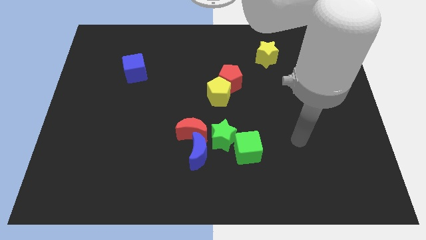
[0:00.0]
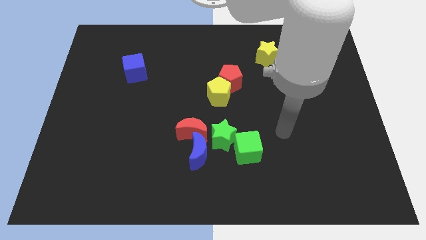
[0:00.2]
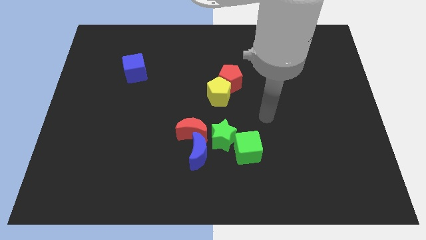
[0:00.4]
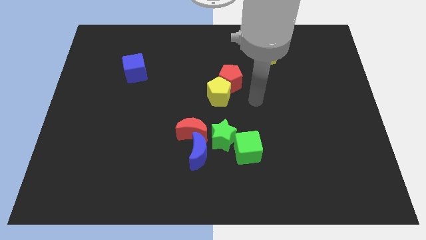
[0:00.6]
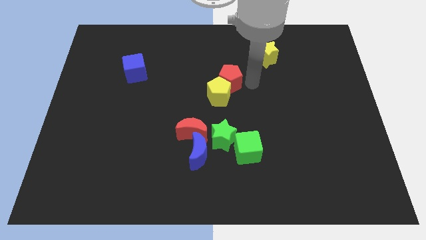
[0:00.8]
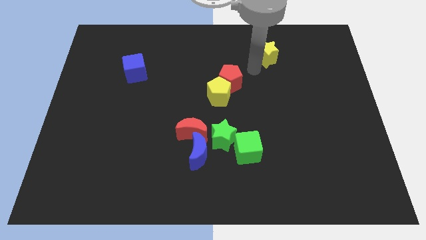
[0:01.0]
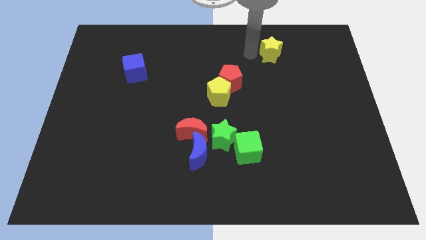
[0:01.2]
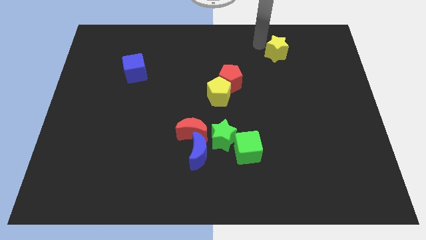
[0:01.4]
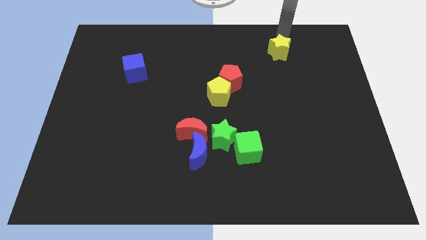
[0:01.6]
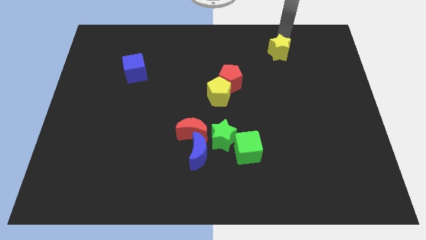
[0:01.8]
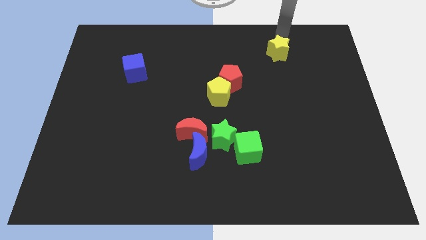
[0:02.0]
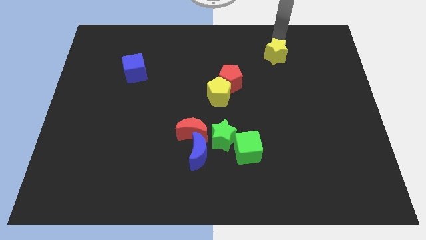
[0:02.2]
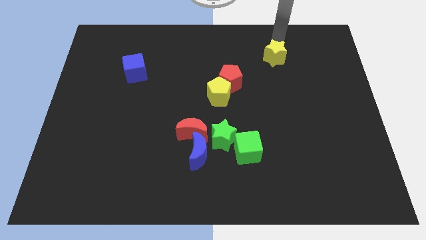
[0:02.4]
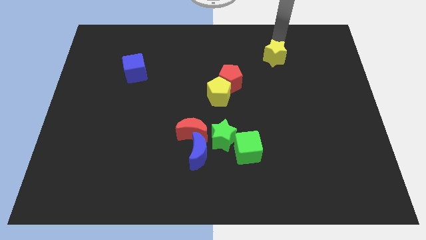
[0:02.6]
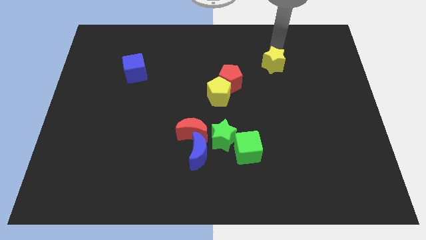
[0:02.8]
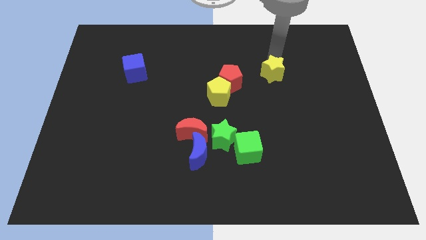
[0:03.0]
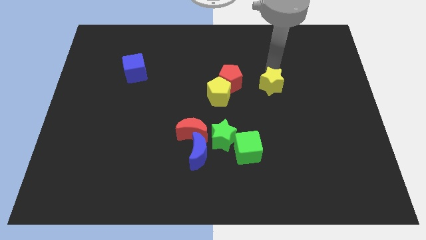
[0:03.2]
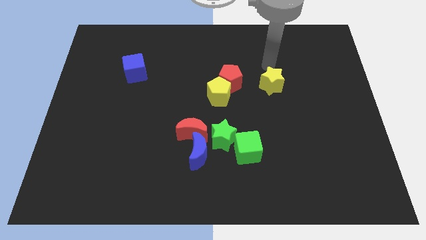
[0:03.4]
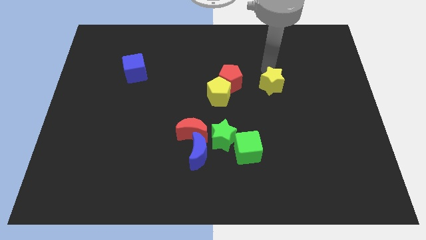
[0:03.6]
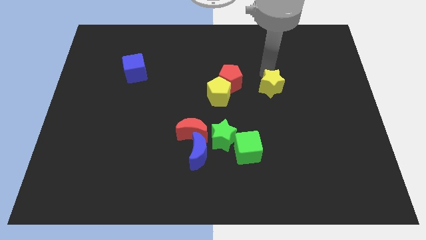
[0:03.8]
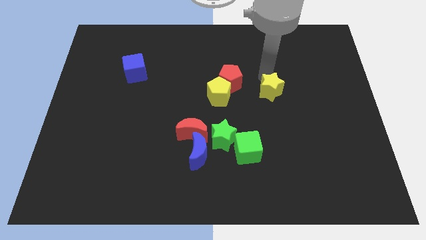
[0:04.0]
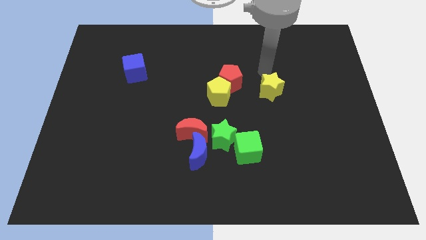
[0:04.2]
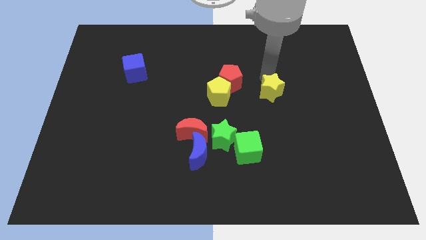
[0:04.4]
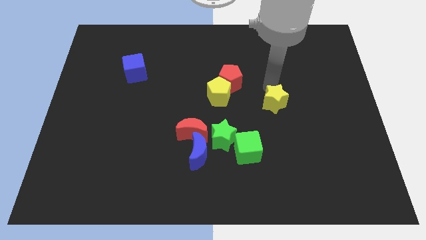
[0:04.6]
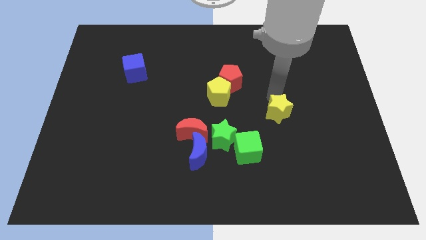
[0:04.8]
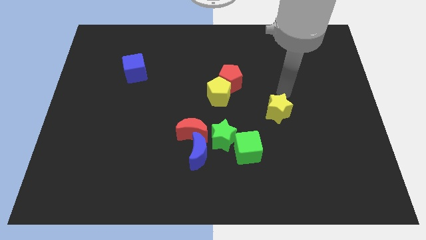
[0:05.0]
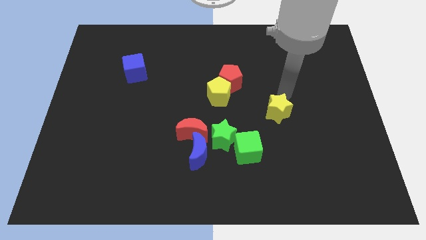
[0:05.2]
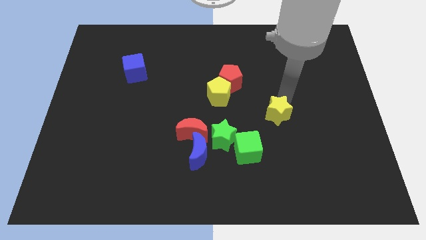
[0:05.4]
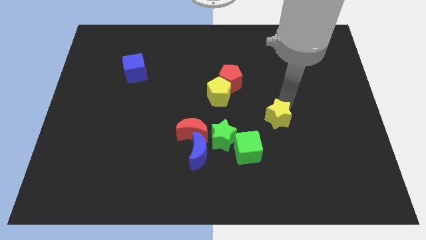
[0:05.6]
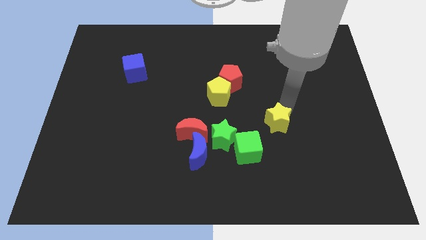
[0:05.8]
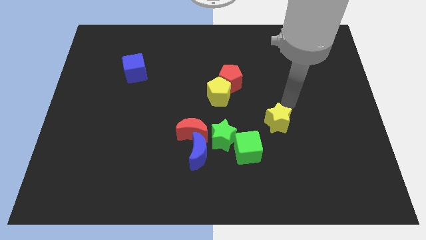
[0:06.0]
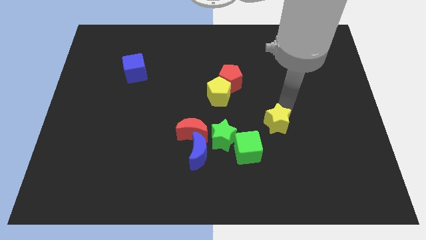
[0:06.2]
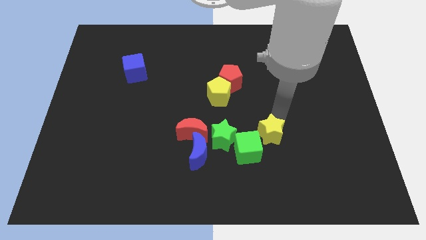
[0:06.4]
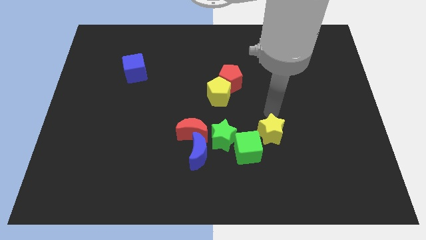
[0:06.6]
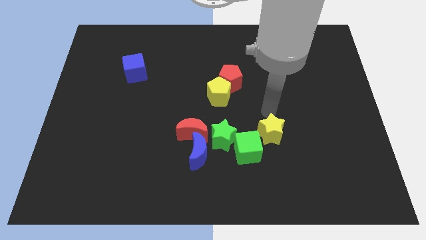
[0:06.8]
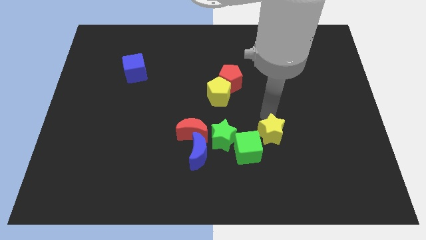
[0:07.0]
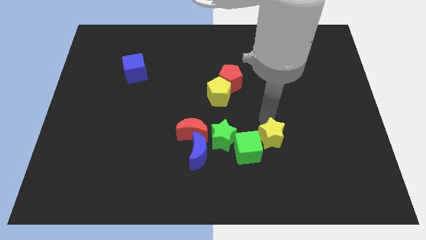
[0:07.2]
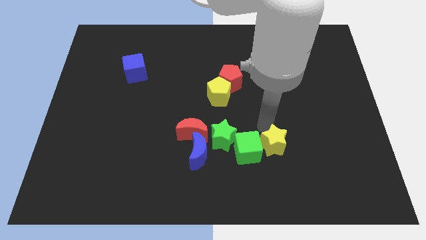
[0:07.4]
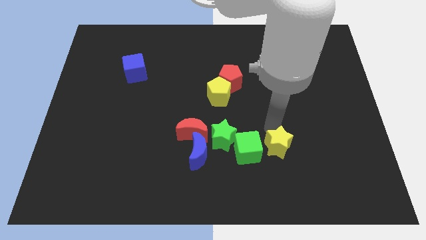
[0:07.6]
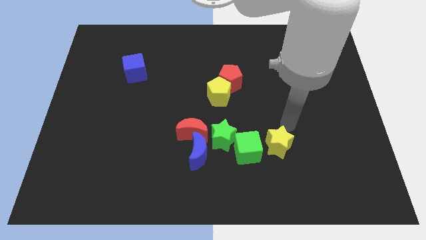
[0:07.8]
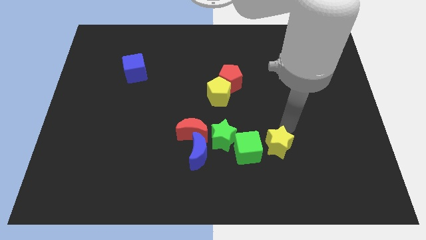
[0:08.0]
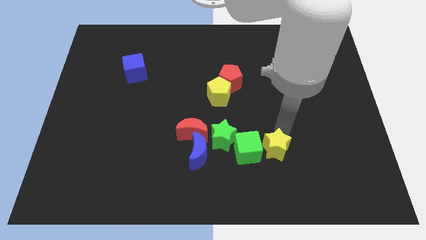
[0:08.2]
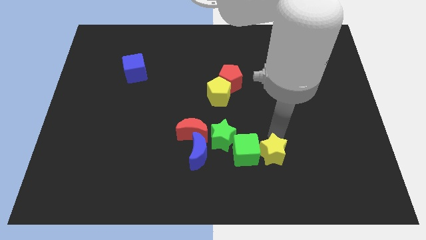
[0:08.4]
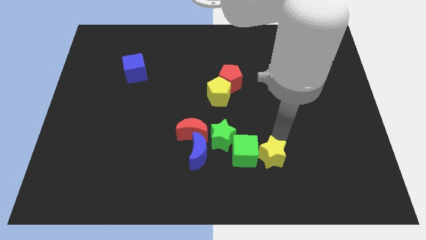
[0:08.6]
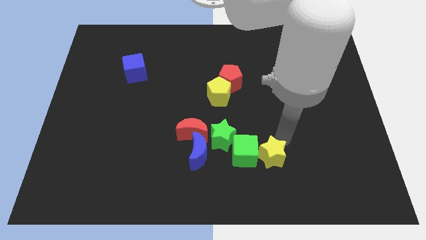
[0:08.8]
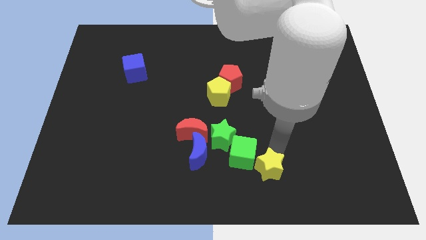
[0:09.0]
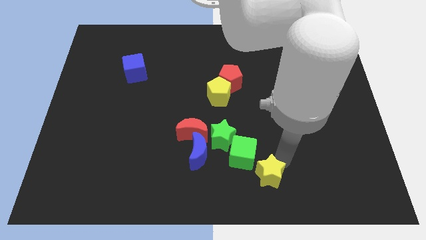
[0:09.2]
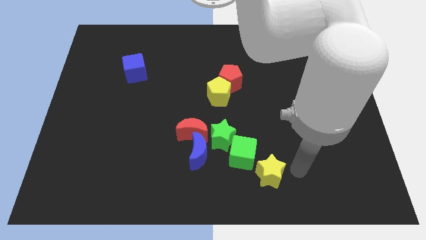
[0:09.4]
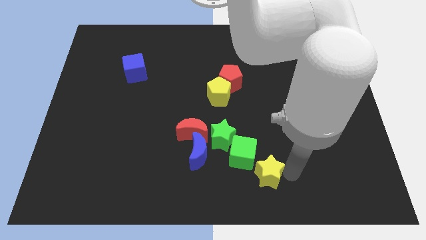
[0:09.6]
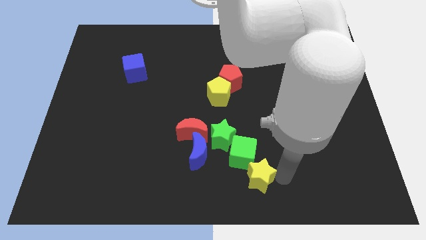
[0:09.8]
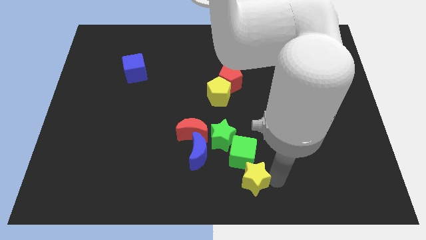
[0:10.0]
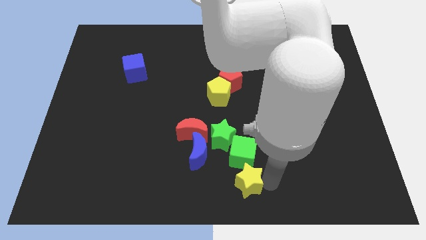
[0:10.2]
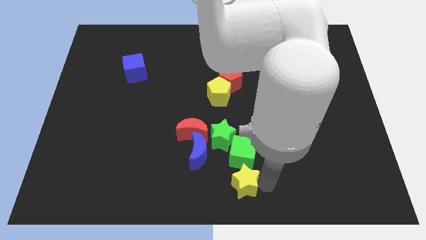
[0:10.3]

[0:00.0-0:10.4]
move the yellow star to the bottom side of the green star

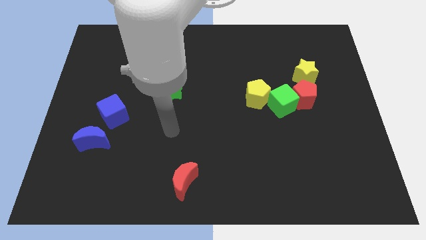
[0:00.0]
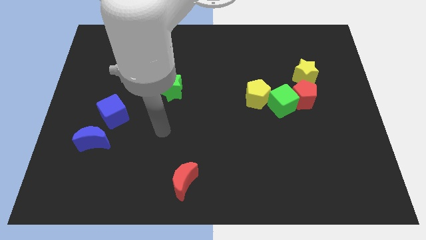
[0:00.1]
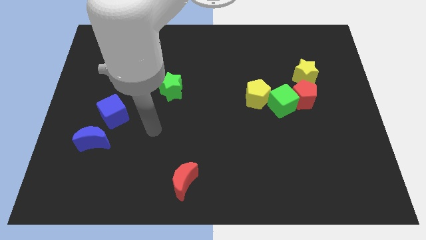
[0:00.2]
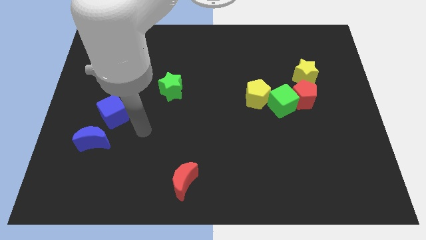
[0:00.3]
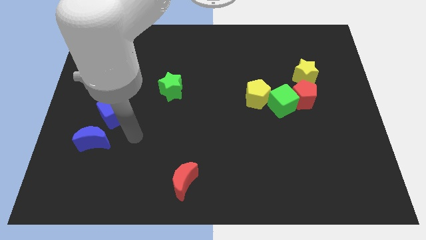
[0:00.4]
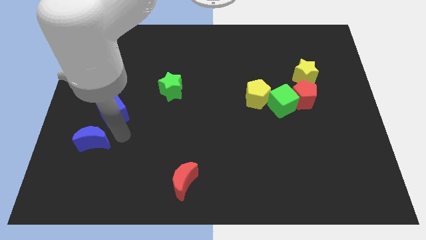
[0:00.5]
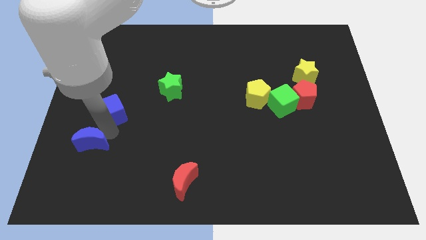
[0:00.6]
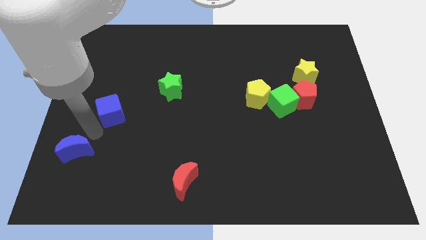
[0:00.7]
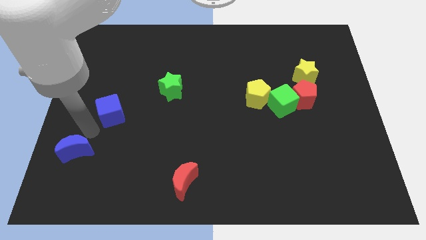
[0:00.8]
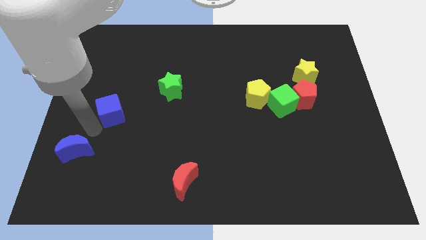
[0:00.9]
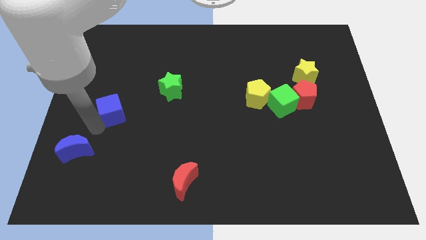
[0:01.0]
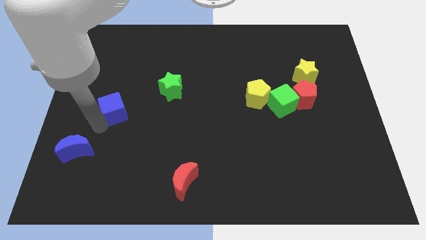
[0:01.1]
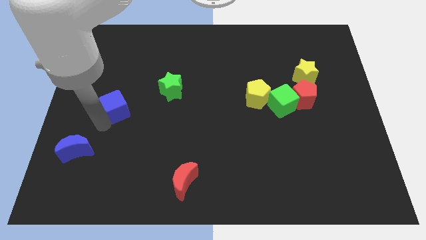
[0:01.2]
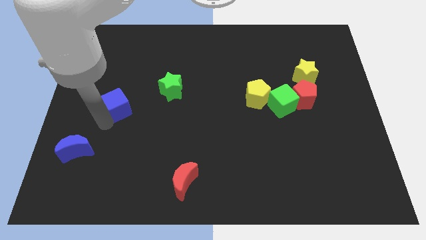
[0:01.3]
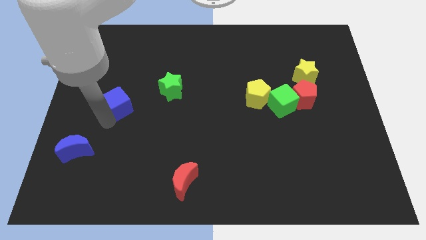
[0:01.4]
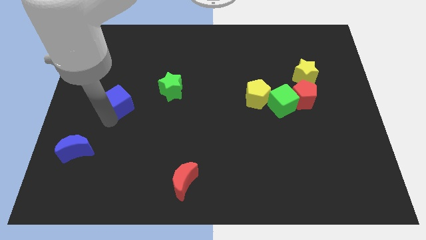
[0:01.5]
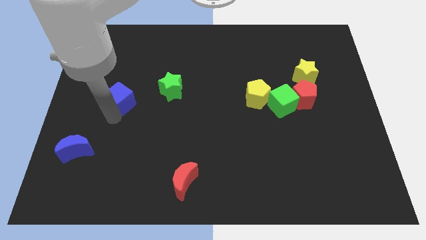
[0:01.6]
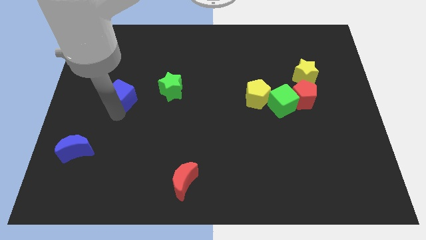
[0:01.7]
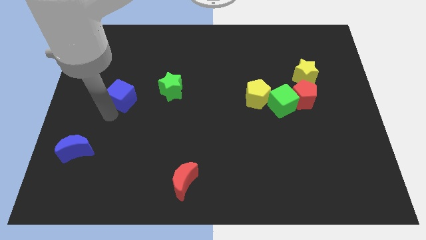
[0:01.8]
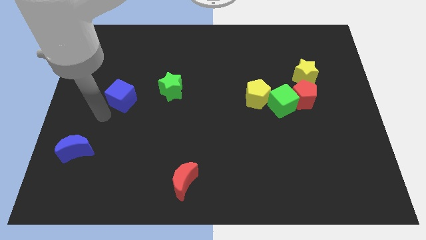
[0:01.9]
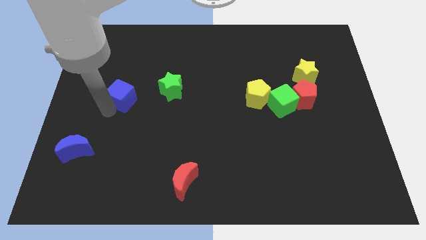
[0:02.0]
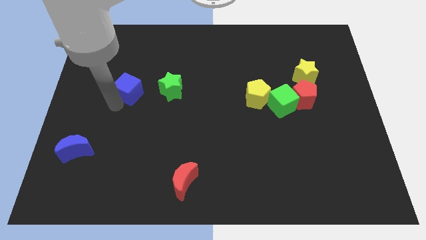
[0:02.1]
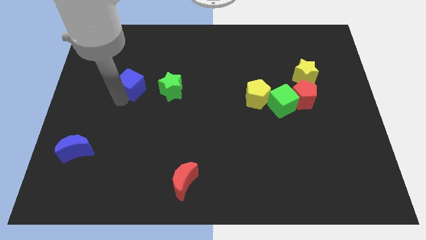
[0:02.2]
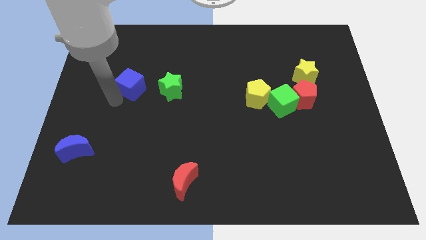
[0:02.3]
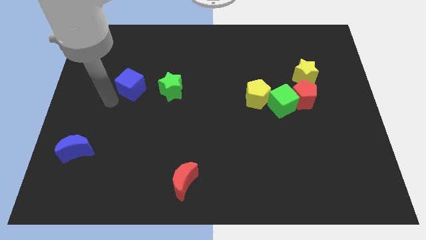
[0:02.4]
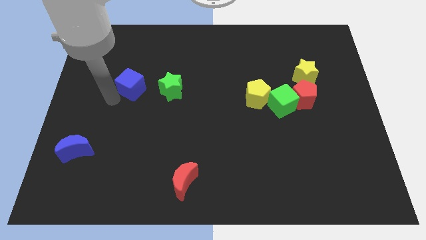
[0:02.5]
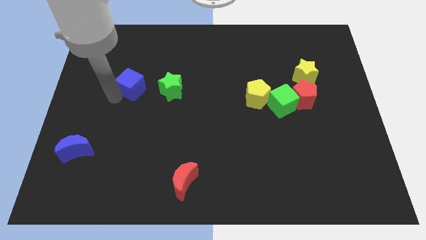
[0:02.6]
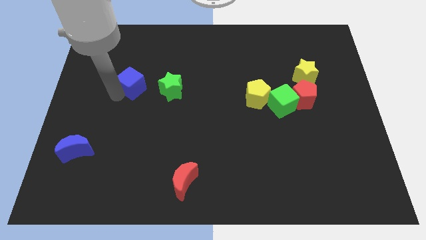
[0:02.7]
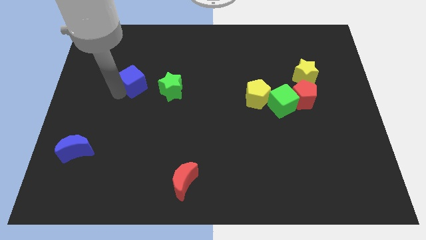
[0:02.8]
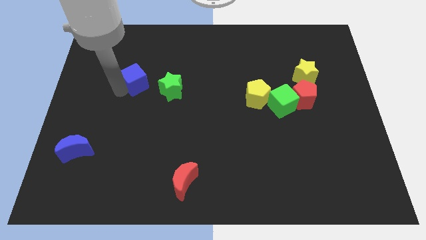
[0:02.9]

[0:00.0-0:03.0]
put the blue cube to the top left side of the green star
